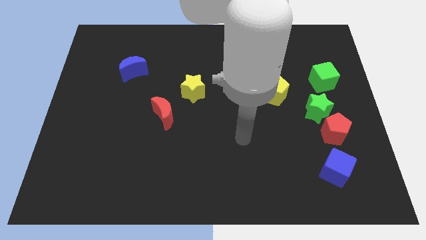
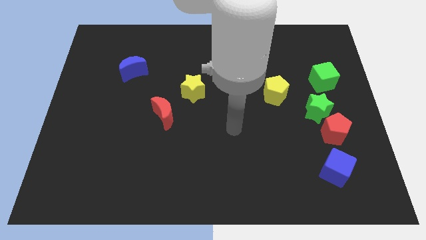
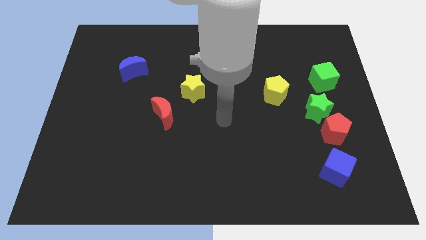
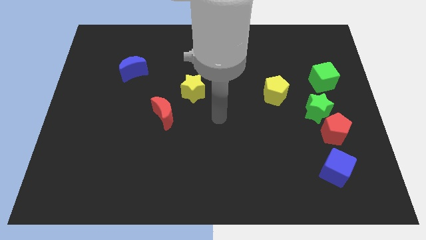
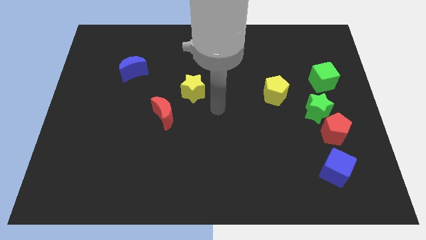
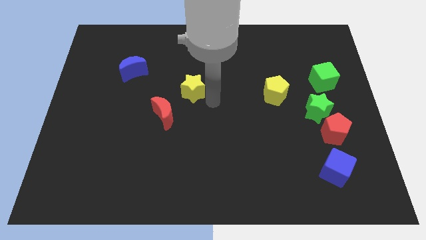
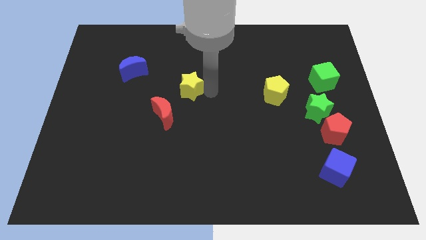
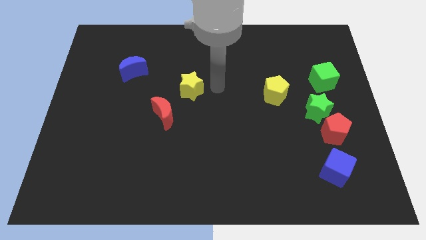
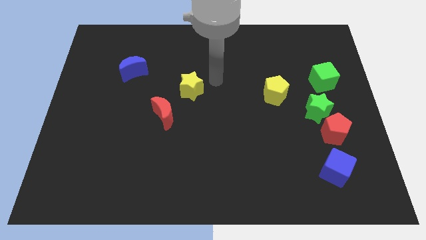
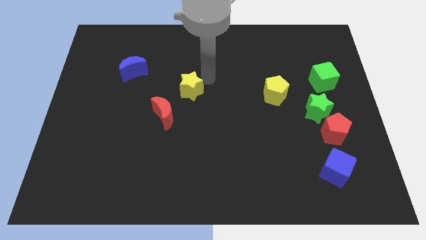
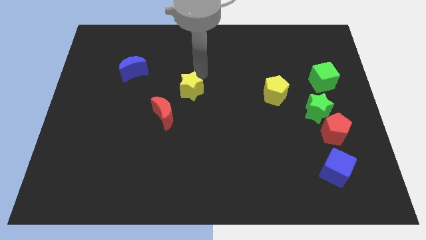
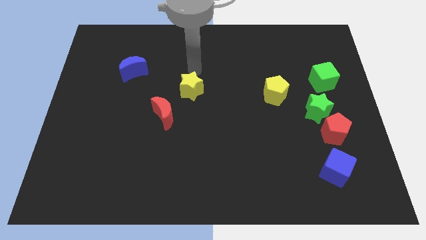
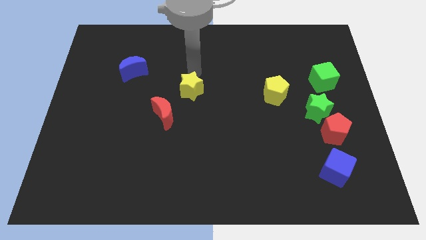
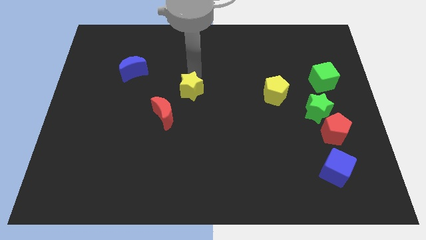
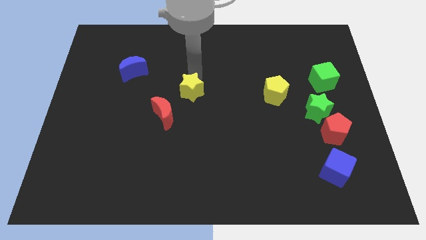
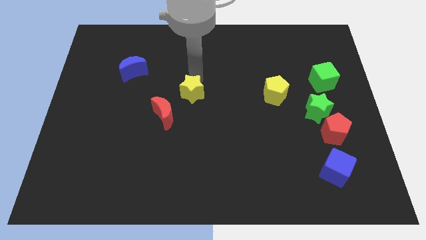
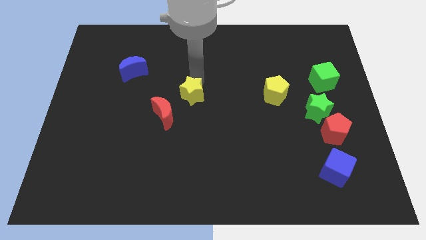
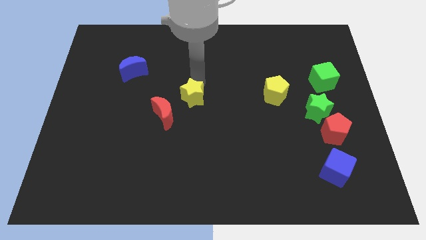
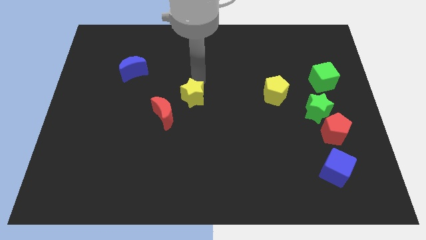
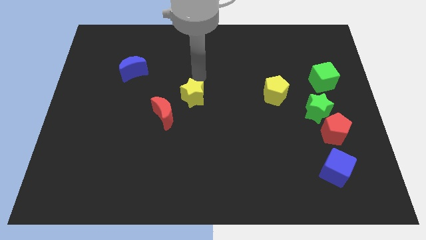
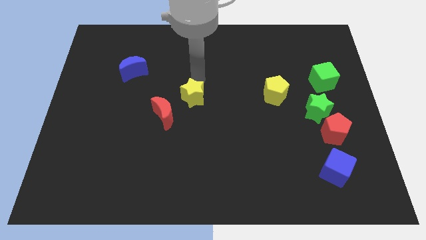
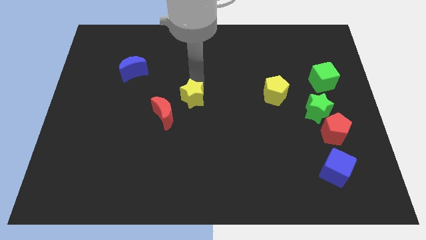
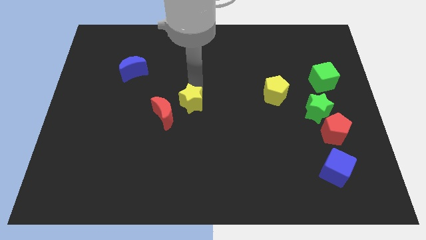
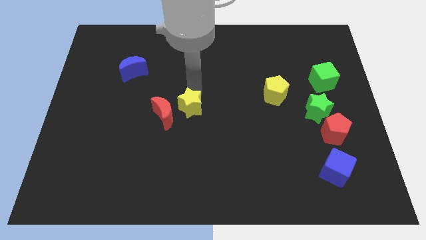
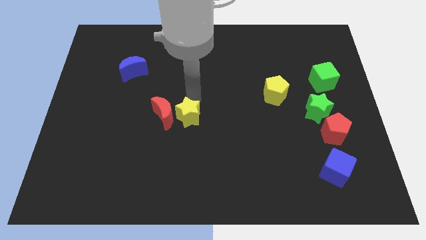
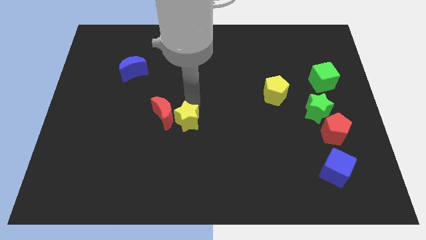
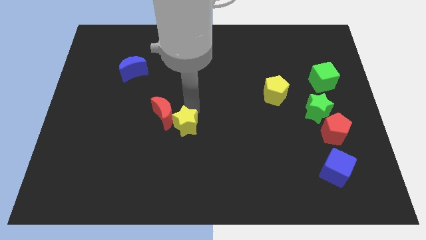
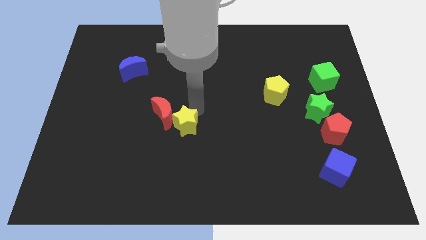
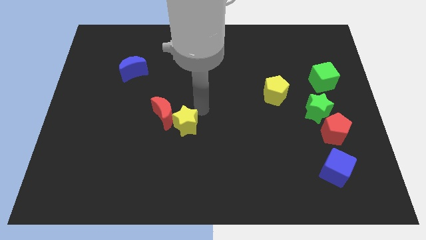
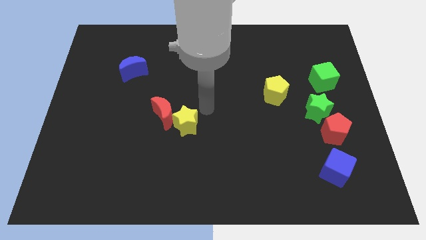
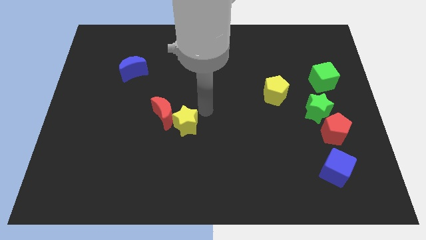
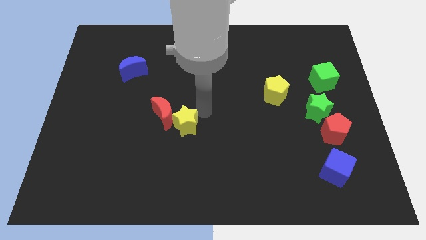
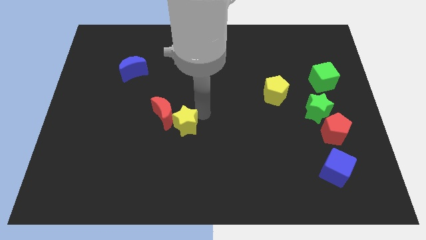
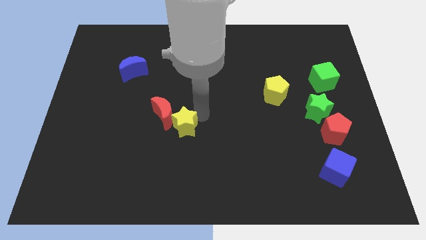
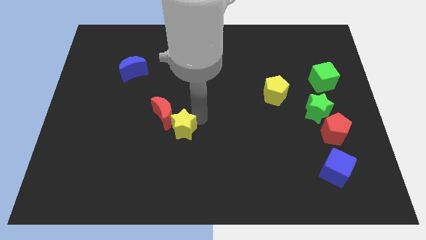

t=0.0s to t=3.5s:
push the yellow star to the bottom of the red moon

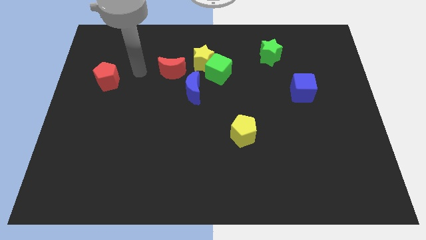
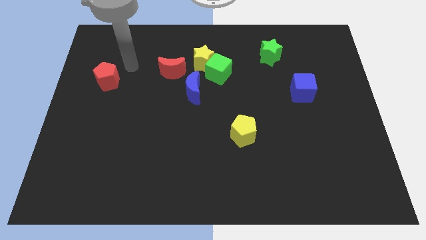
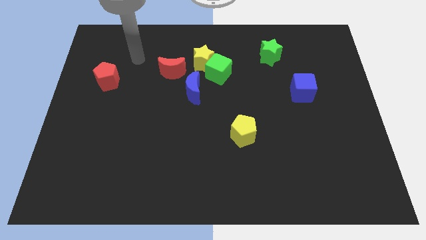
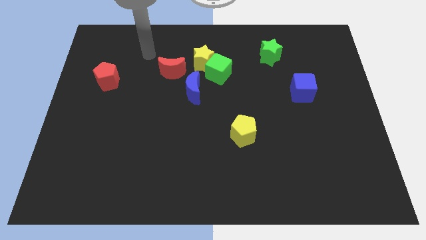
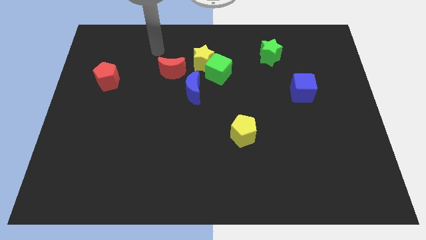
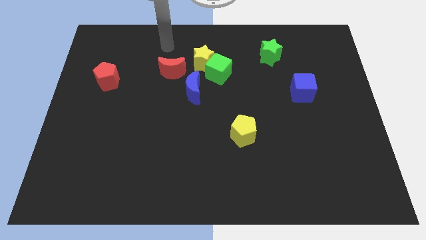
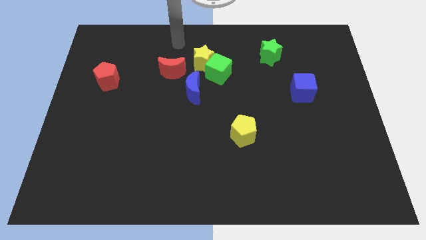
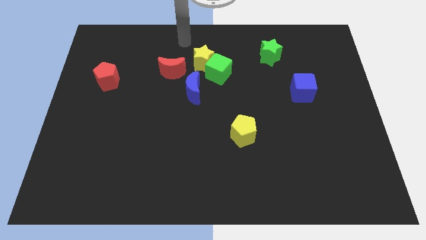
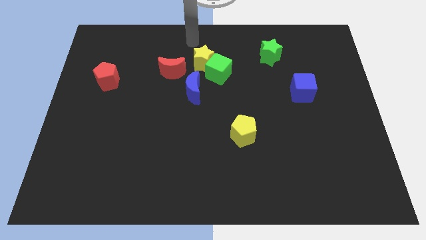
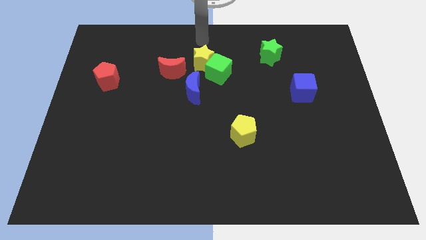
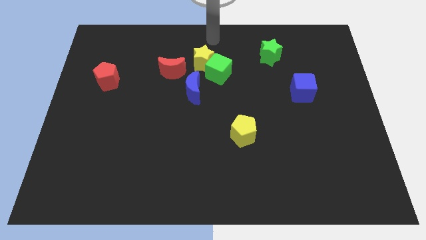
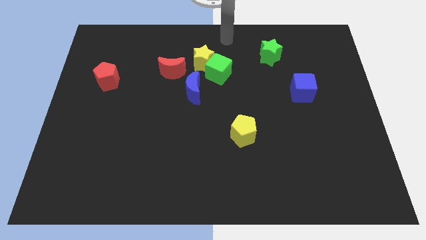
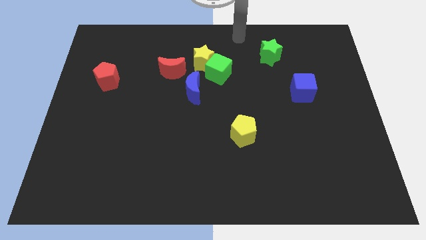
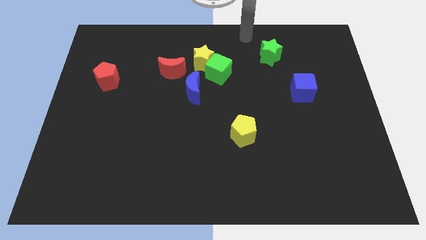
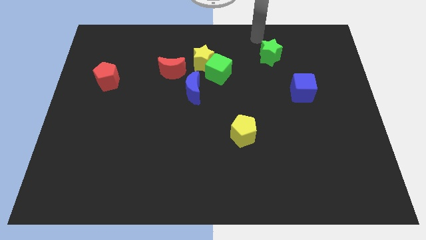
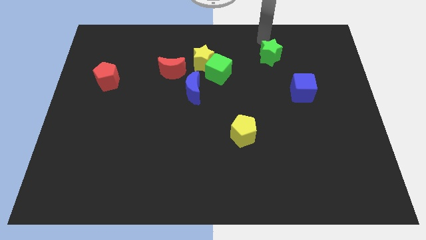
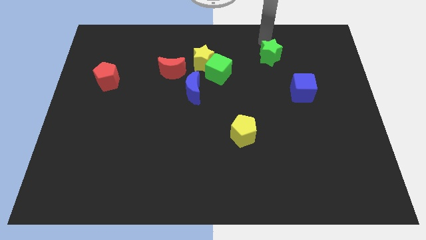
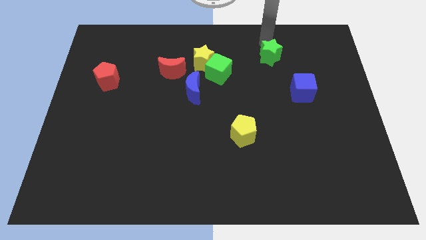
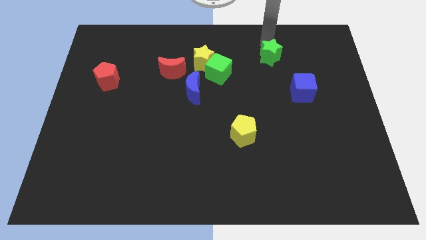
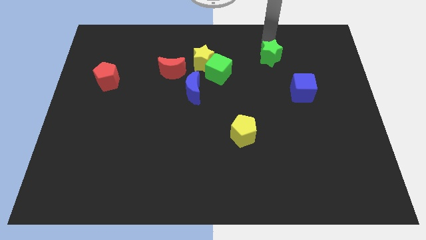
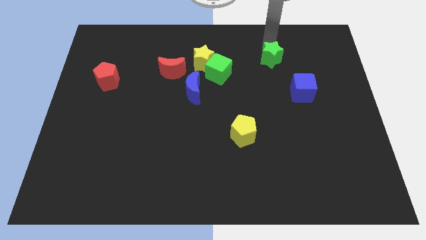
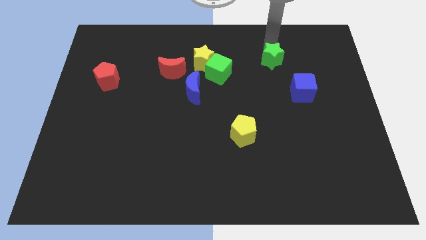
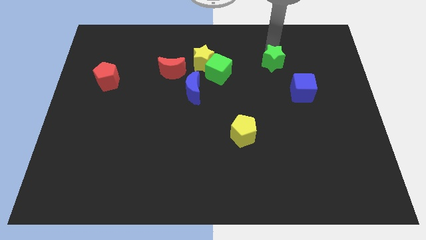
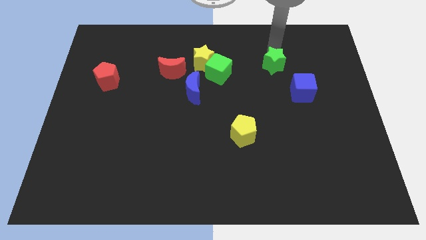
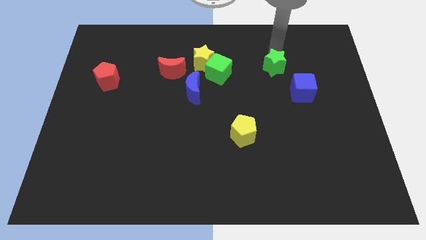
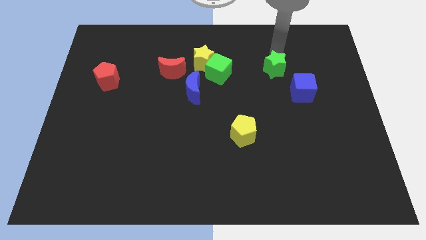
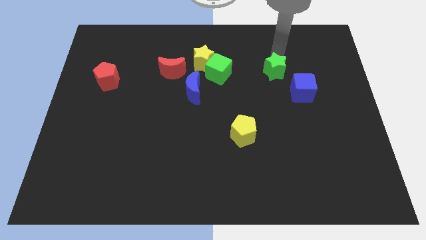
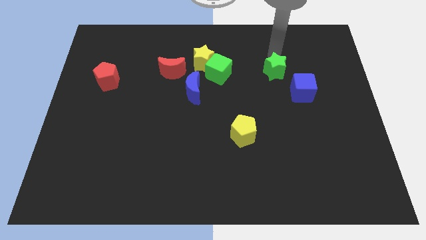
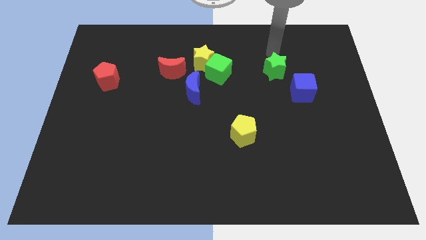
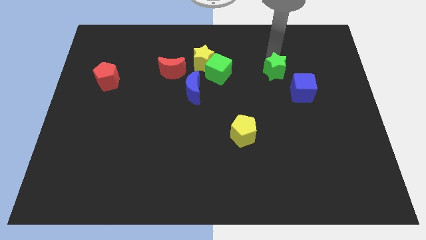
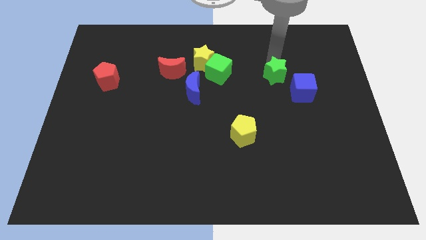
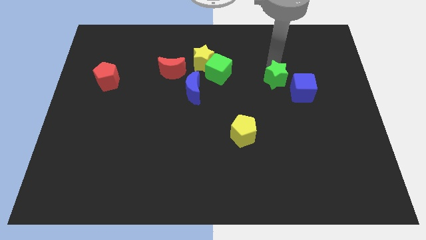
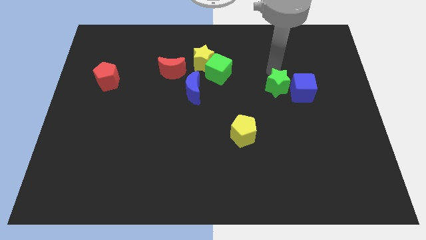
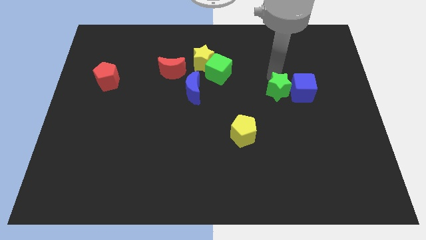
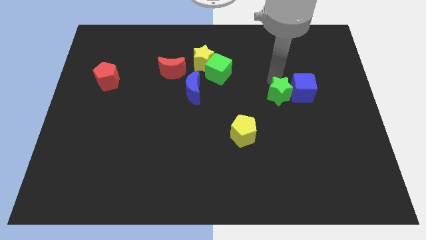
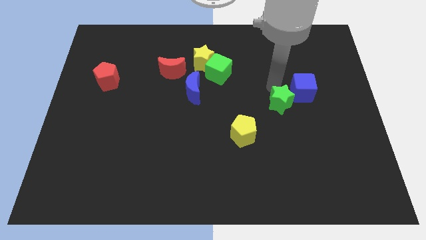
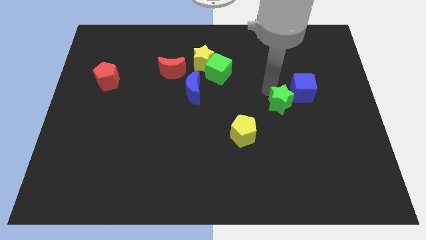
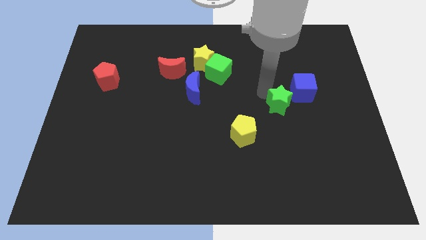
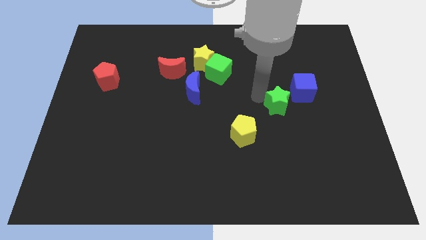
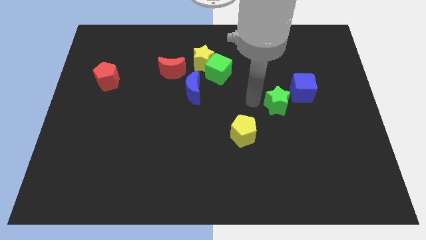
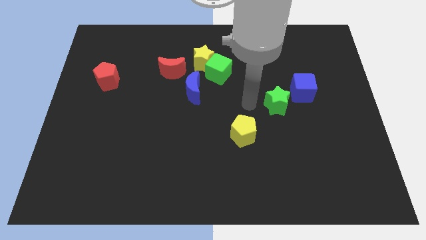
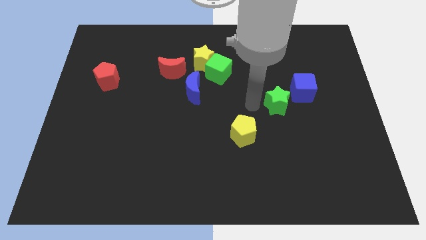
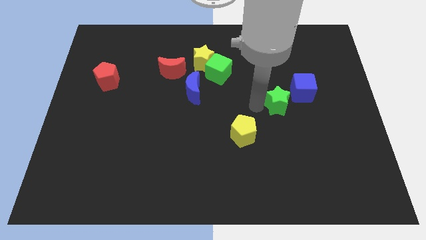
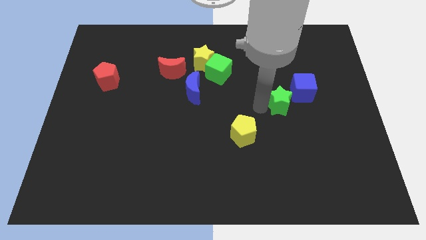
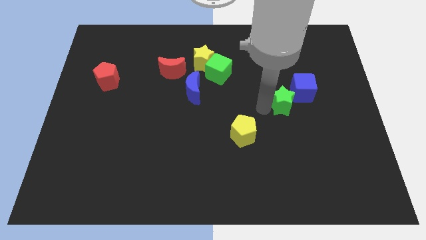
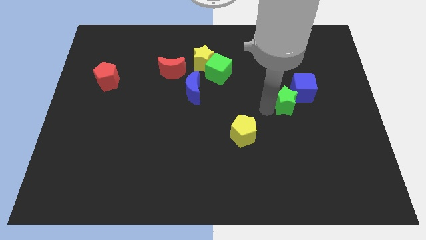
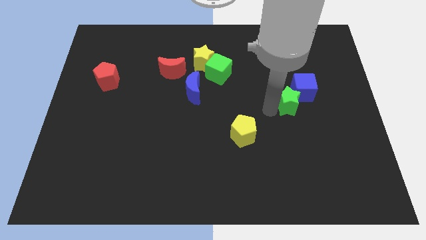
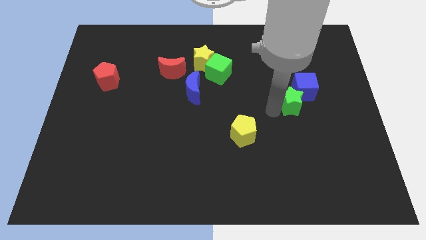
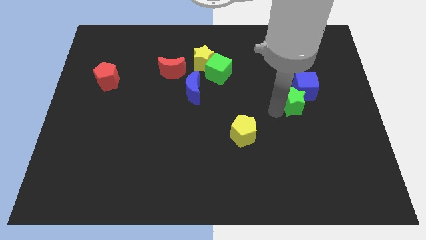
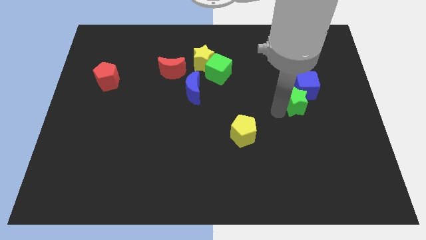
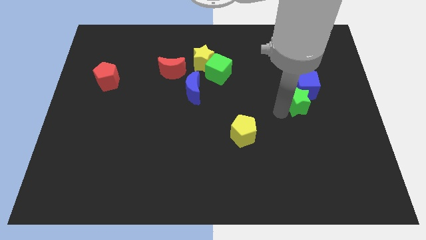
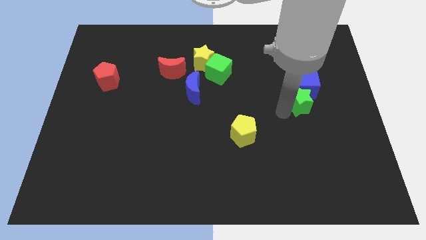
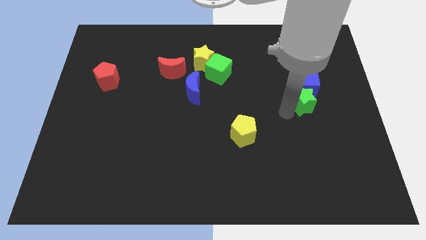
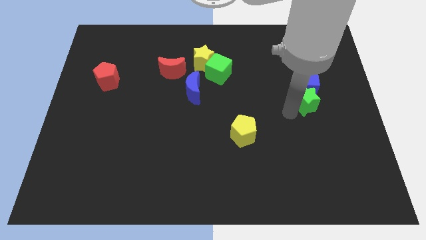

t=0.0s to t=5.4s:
slide the green star to the bottom right of the blue cube
